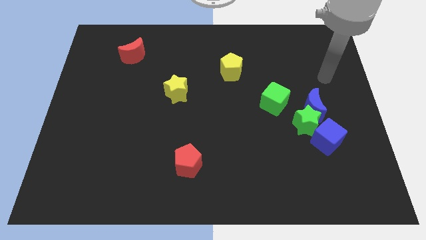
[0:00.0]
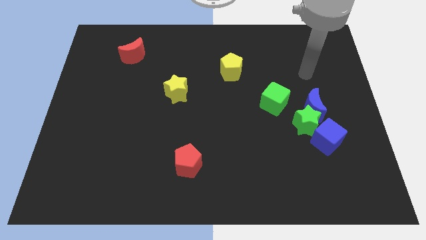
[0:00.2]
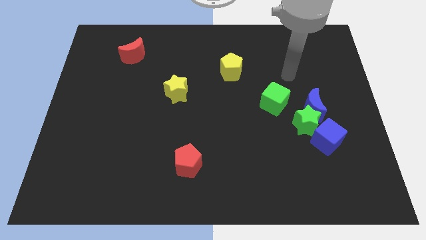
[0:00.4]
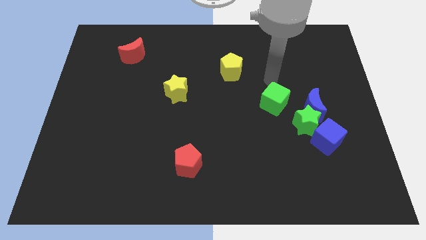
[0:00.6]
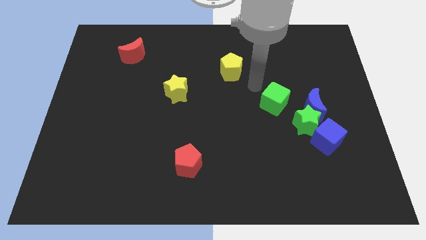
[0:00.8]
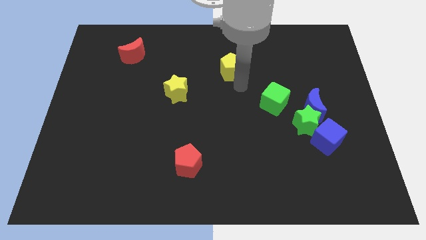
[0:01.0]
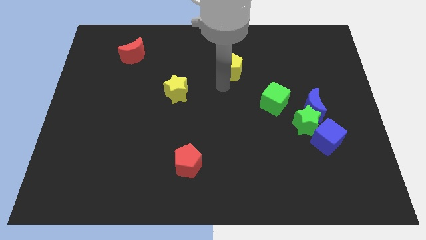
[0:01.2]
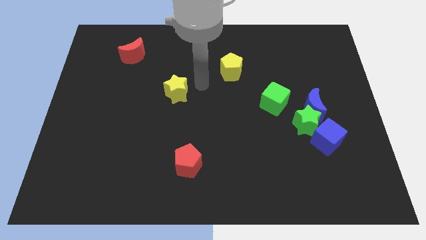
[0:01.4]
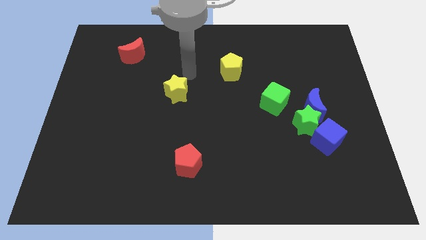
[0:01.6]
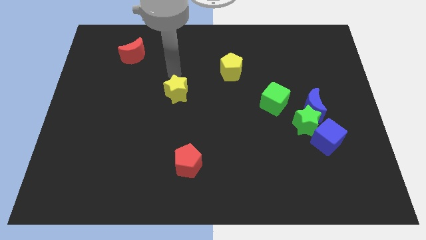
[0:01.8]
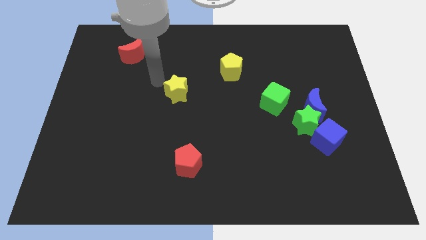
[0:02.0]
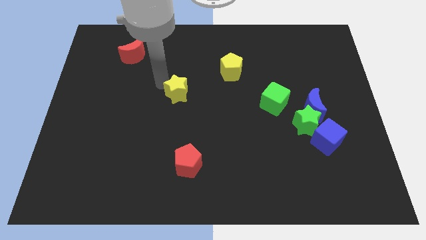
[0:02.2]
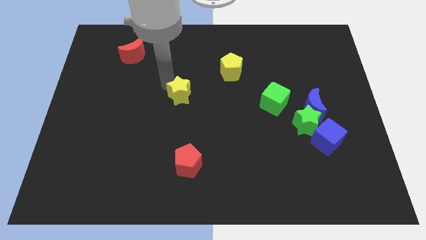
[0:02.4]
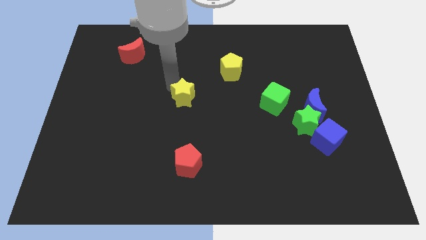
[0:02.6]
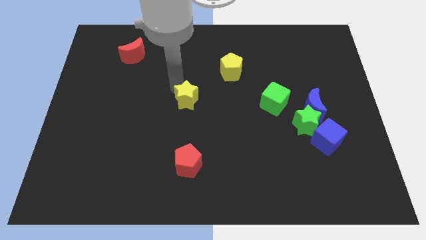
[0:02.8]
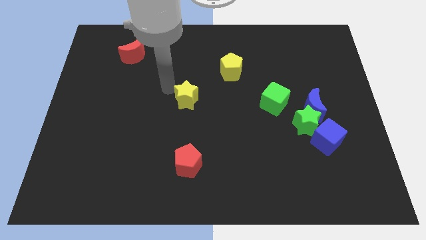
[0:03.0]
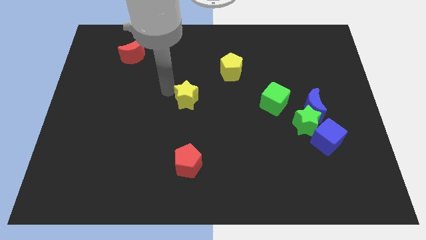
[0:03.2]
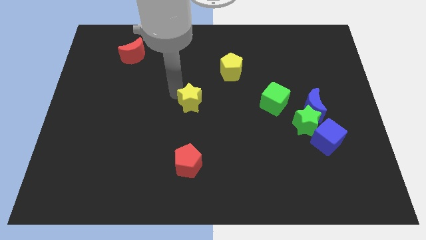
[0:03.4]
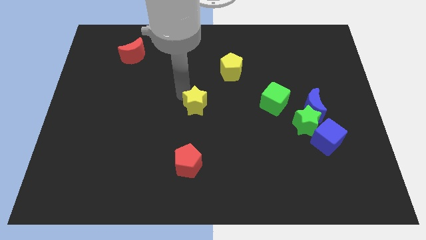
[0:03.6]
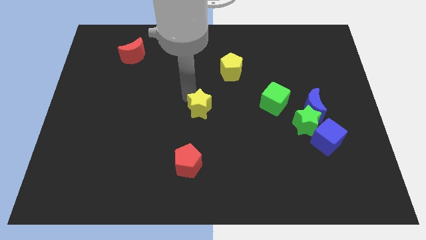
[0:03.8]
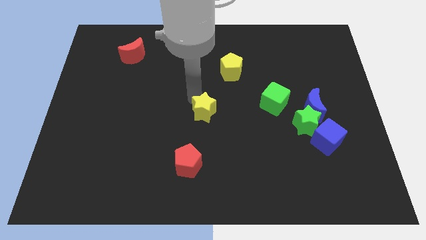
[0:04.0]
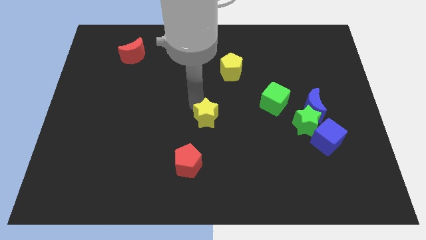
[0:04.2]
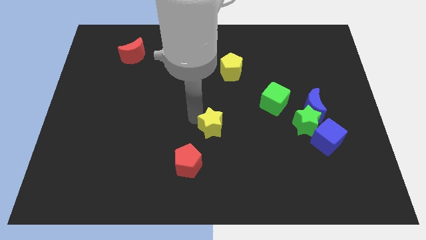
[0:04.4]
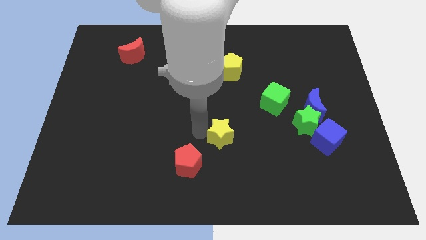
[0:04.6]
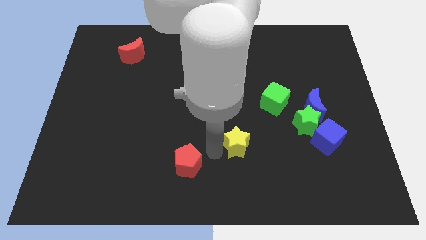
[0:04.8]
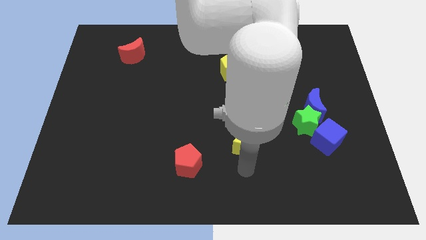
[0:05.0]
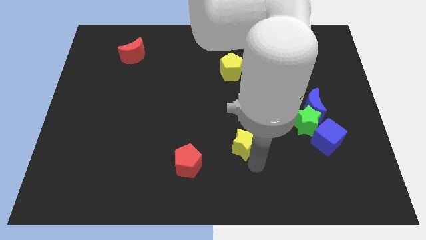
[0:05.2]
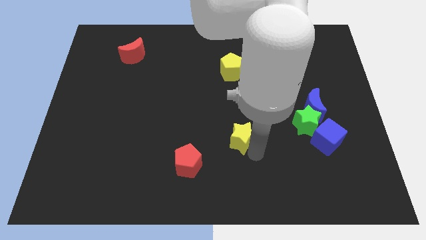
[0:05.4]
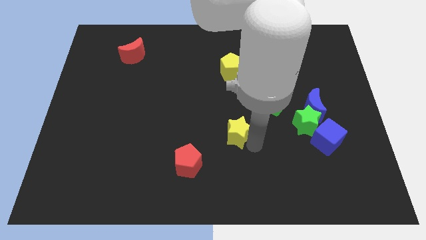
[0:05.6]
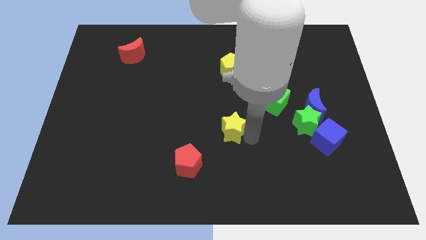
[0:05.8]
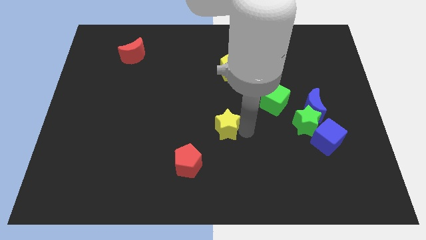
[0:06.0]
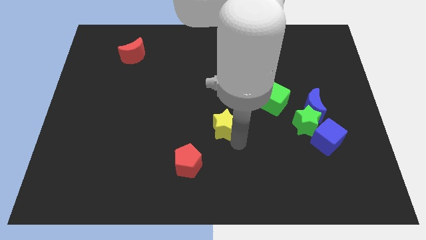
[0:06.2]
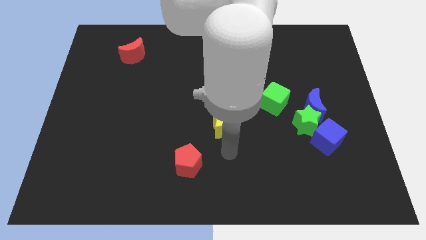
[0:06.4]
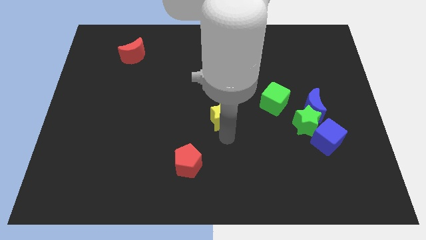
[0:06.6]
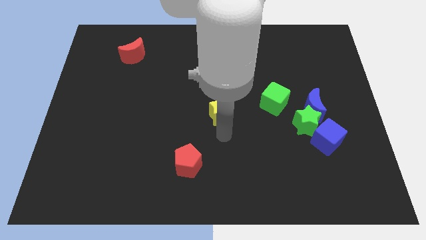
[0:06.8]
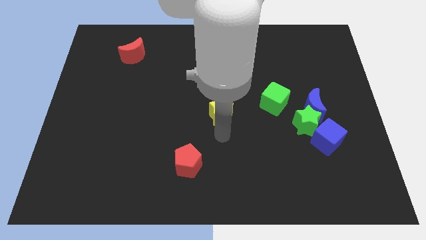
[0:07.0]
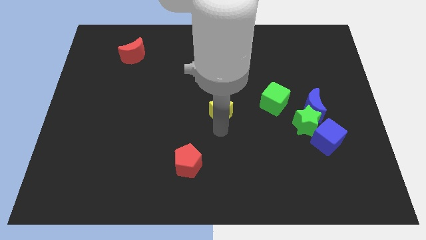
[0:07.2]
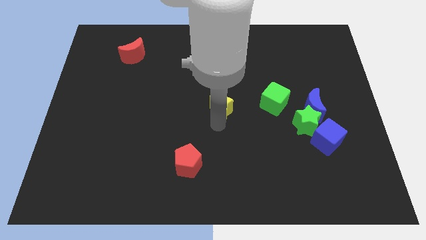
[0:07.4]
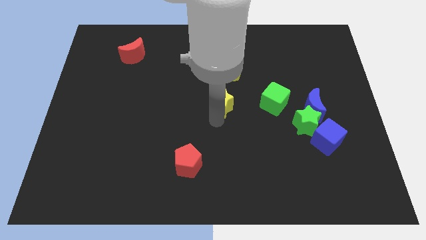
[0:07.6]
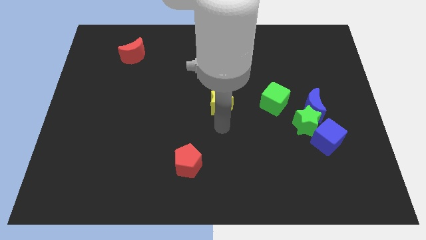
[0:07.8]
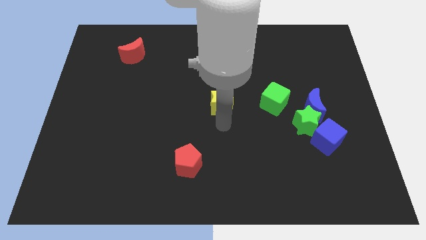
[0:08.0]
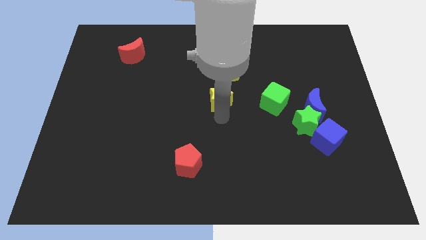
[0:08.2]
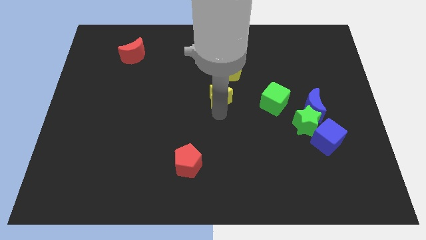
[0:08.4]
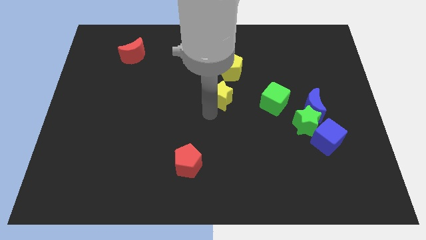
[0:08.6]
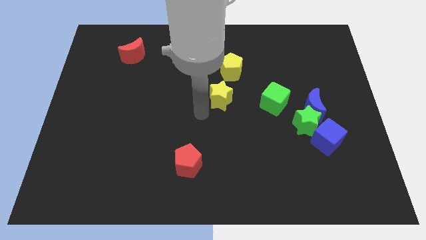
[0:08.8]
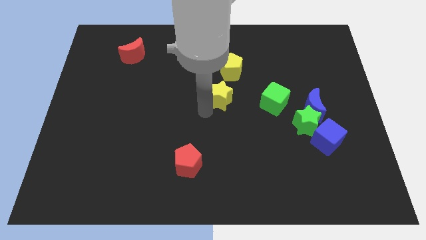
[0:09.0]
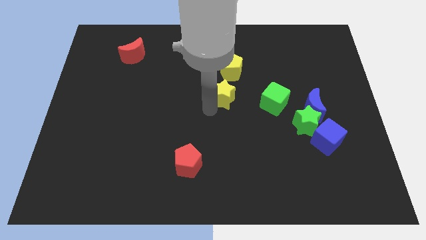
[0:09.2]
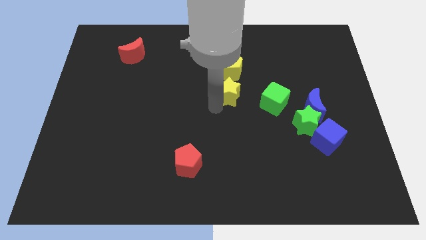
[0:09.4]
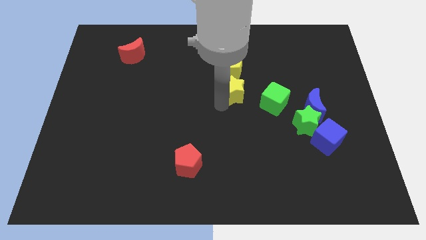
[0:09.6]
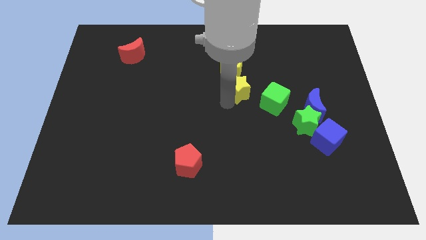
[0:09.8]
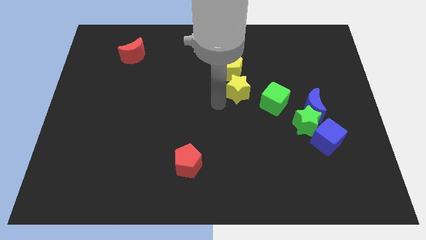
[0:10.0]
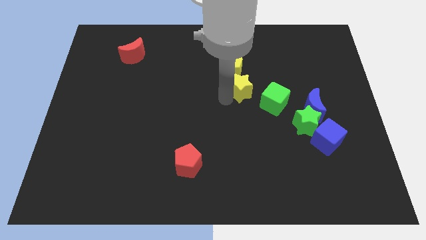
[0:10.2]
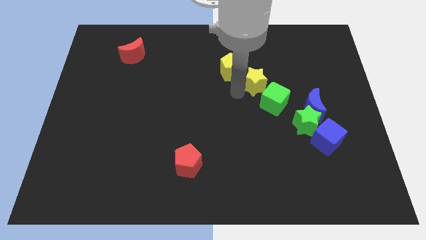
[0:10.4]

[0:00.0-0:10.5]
slide the yellow star to the right of the yellow pentagon

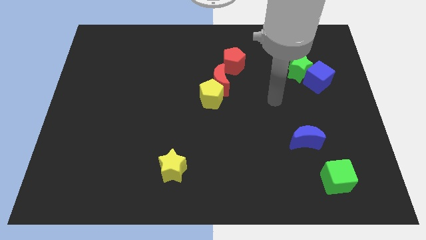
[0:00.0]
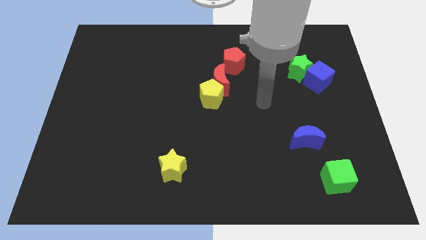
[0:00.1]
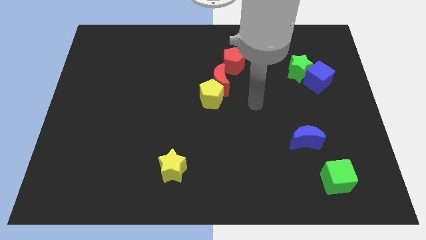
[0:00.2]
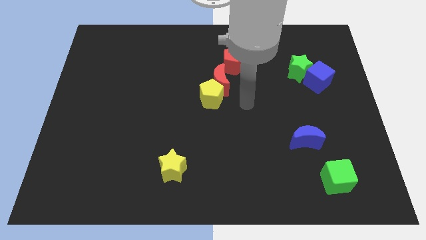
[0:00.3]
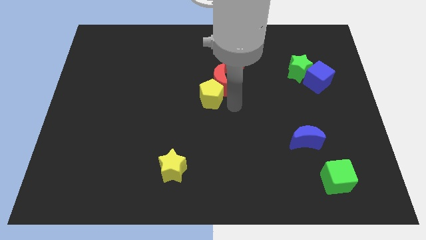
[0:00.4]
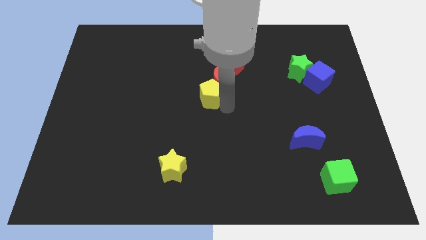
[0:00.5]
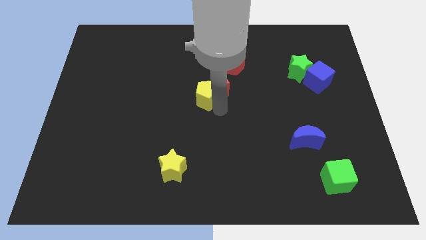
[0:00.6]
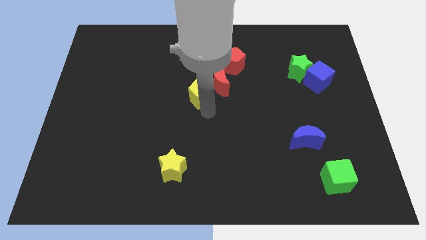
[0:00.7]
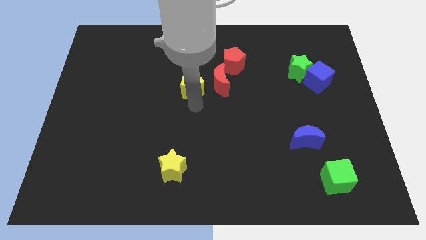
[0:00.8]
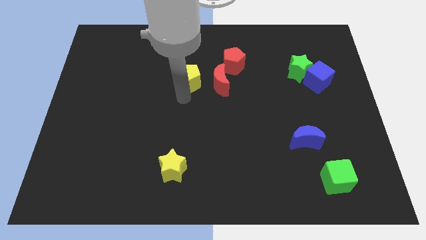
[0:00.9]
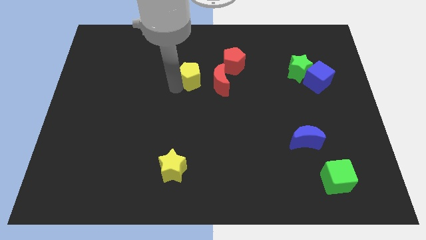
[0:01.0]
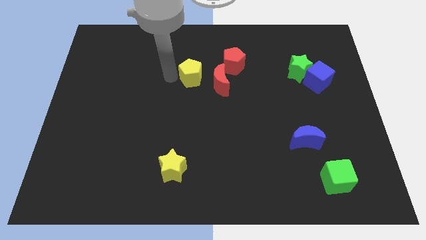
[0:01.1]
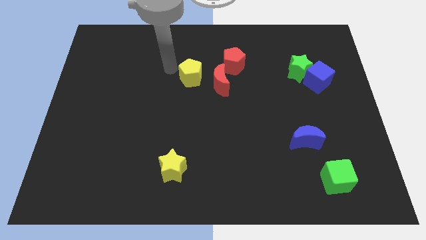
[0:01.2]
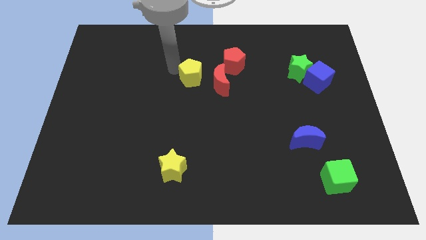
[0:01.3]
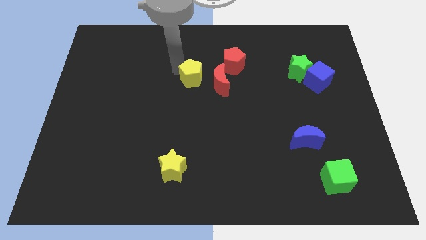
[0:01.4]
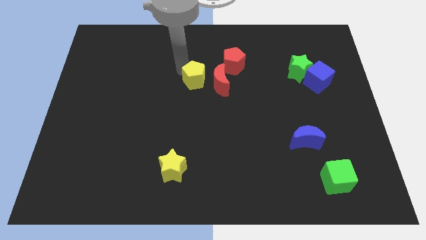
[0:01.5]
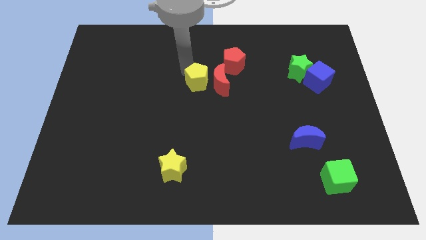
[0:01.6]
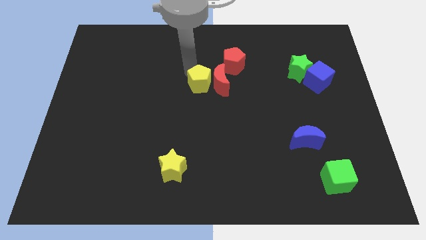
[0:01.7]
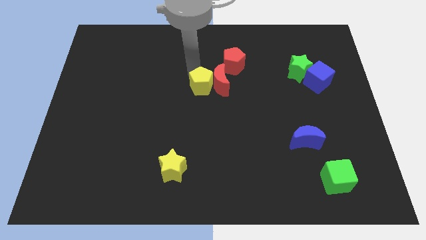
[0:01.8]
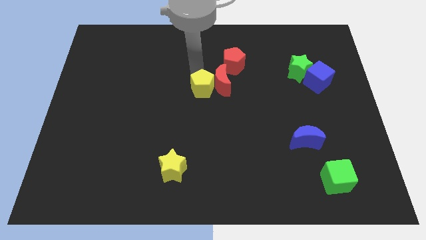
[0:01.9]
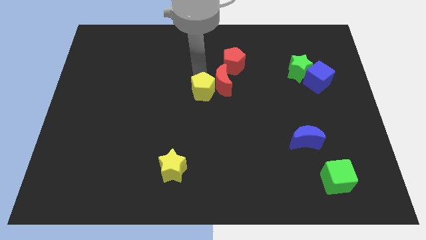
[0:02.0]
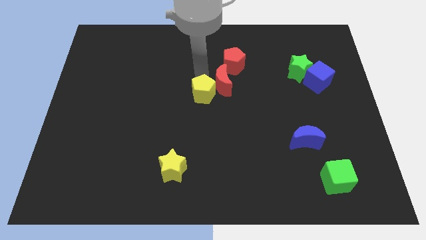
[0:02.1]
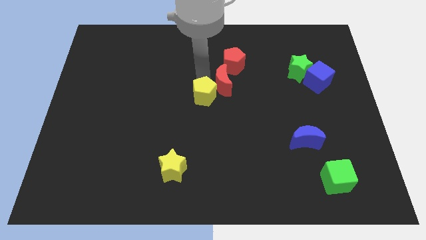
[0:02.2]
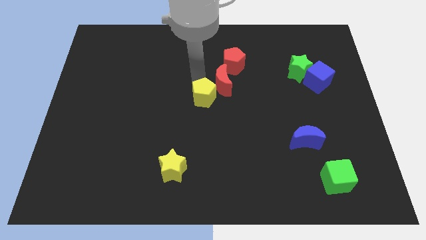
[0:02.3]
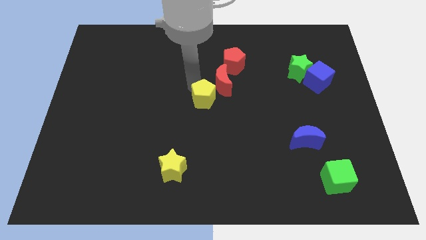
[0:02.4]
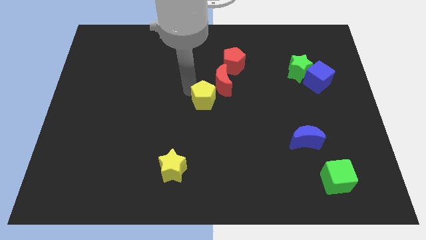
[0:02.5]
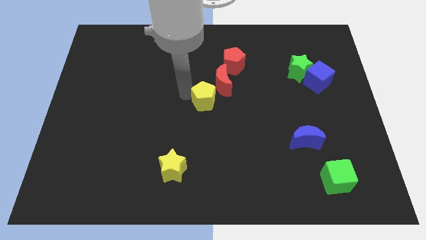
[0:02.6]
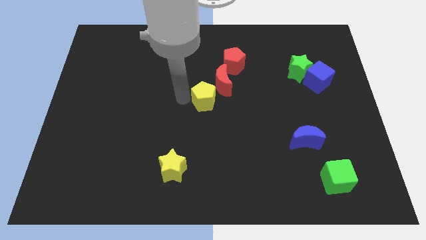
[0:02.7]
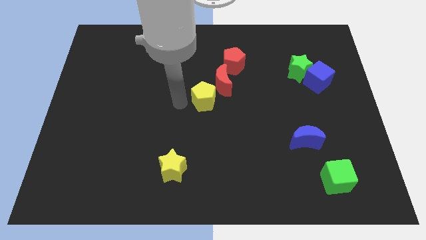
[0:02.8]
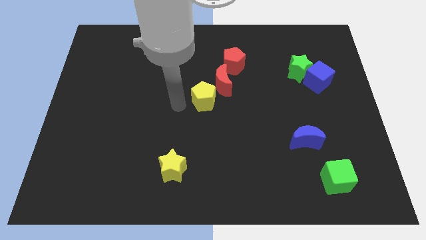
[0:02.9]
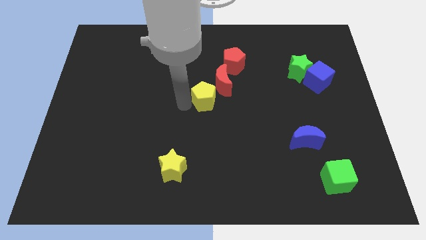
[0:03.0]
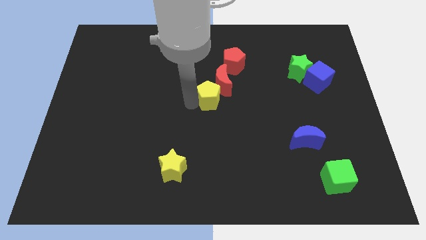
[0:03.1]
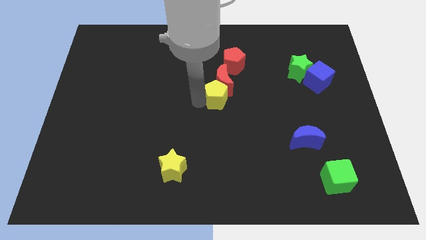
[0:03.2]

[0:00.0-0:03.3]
move the yellow pentagon to the bottom of the red pentagon
